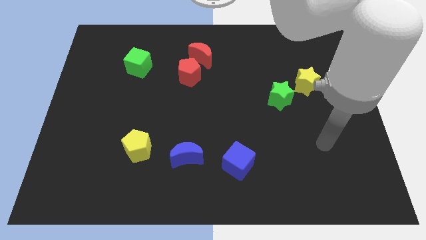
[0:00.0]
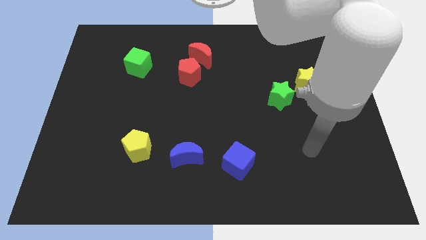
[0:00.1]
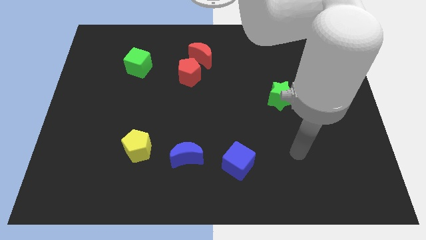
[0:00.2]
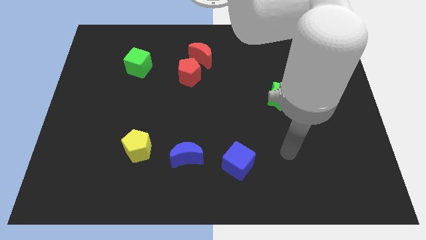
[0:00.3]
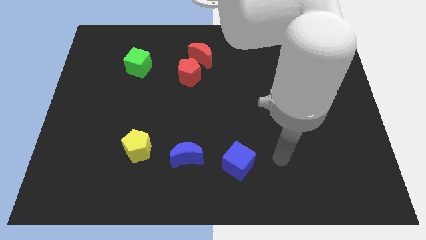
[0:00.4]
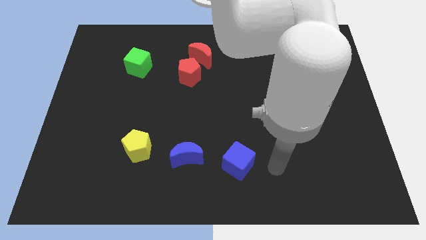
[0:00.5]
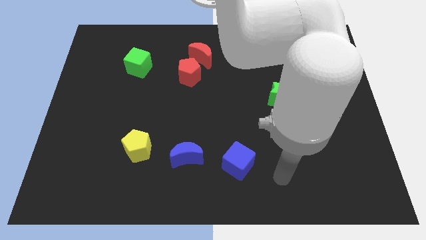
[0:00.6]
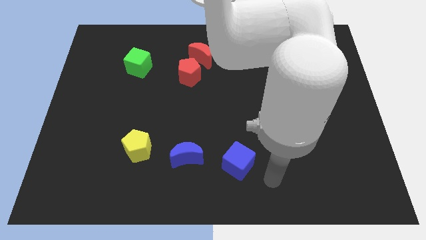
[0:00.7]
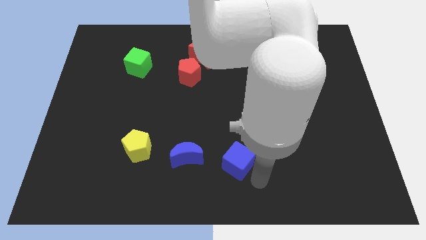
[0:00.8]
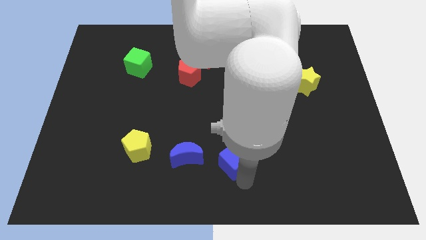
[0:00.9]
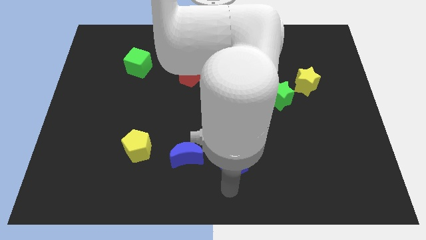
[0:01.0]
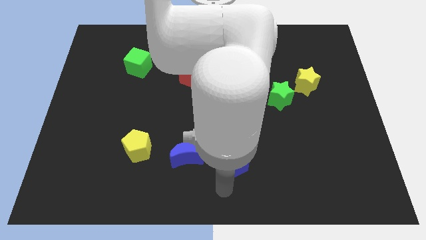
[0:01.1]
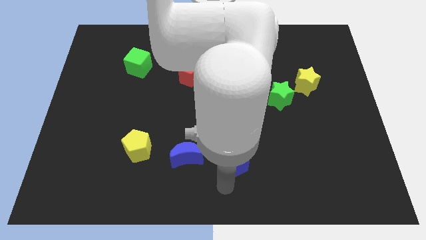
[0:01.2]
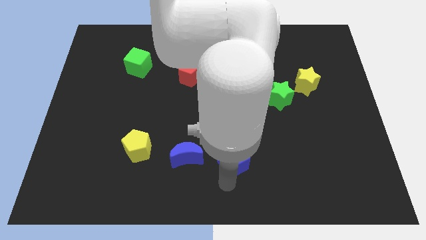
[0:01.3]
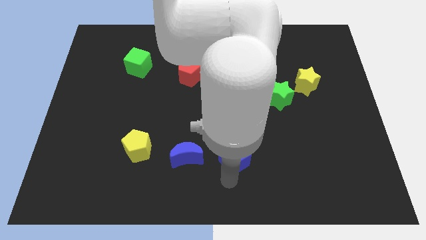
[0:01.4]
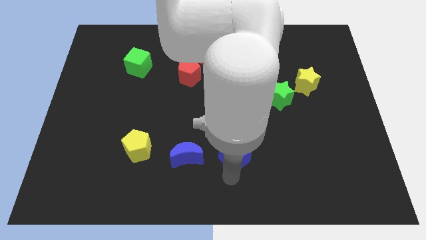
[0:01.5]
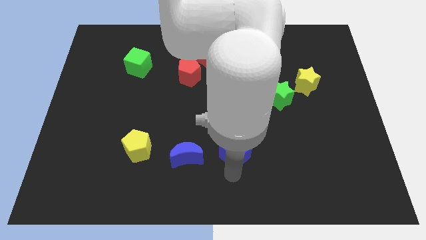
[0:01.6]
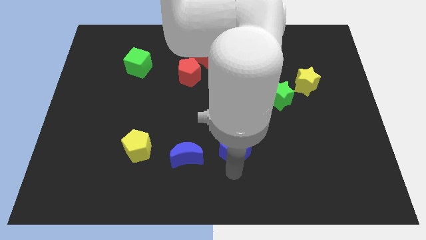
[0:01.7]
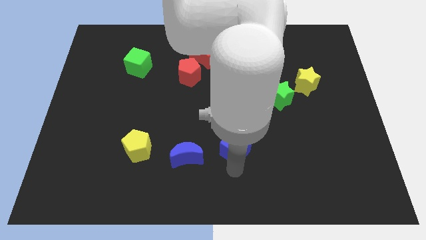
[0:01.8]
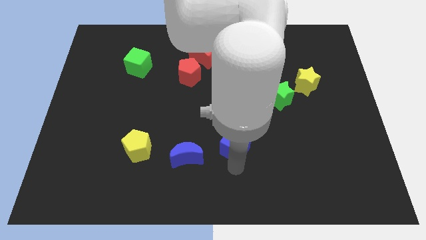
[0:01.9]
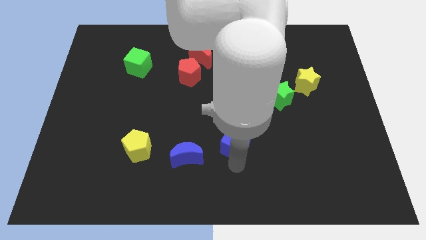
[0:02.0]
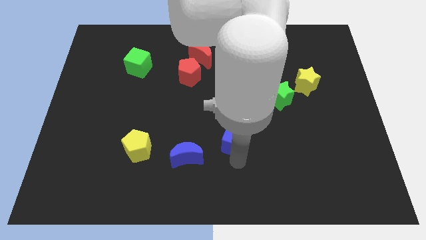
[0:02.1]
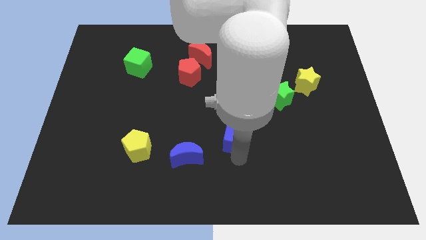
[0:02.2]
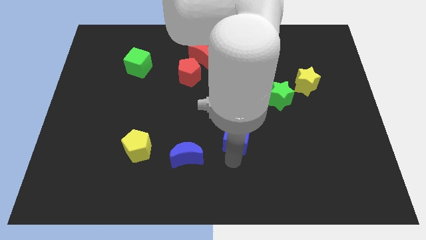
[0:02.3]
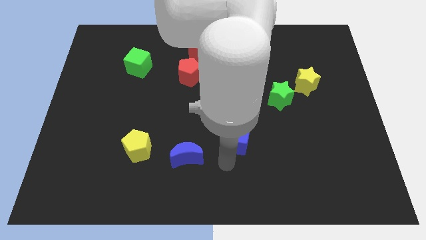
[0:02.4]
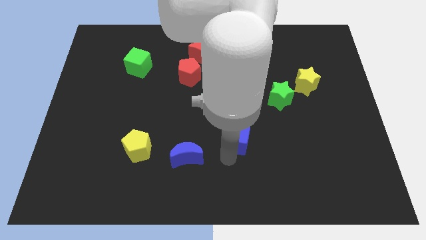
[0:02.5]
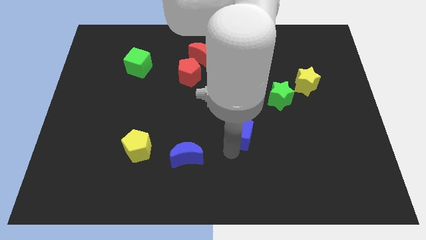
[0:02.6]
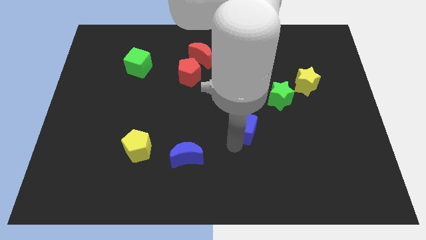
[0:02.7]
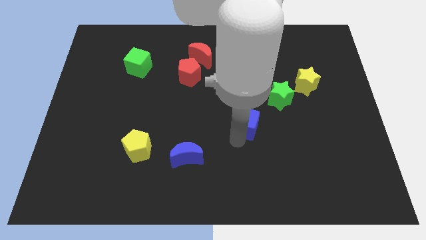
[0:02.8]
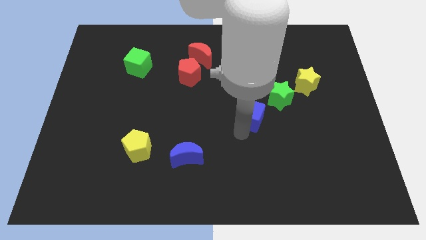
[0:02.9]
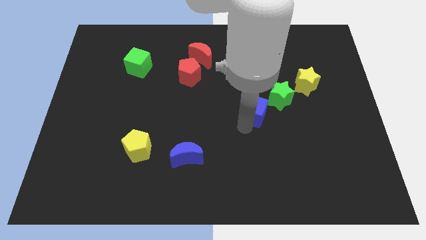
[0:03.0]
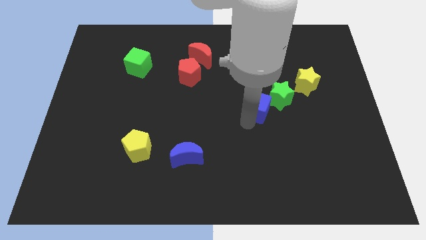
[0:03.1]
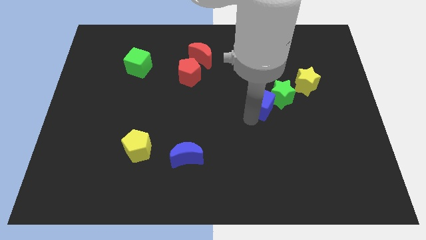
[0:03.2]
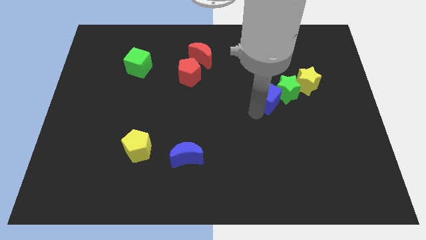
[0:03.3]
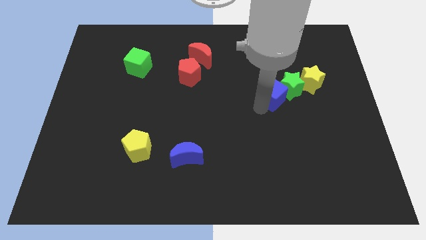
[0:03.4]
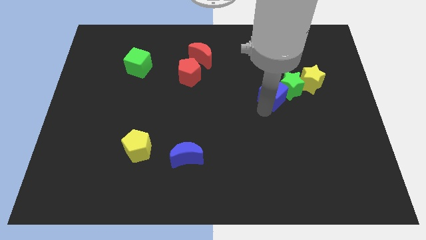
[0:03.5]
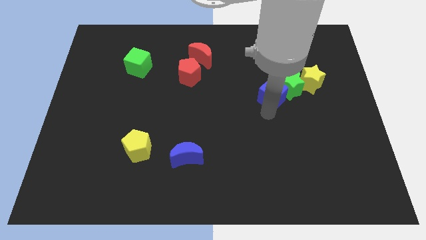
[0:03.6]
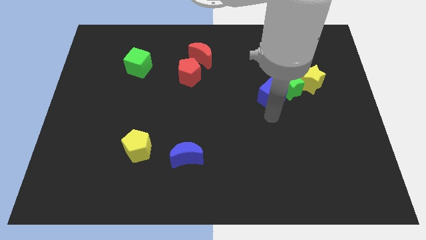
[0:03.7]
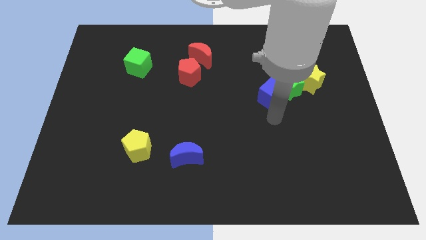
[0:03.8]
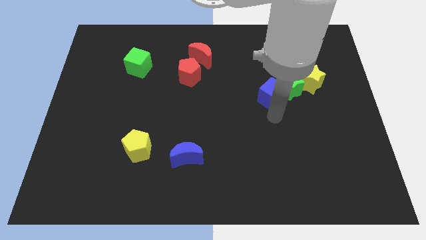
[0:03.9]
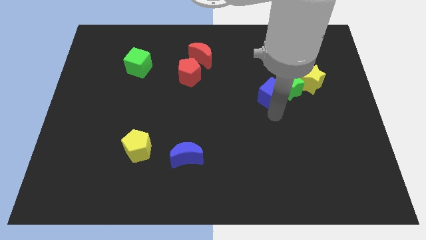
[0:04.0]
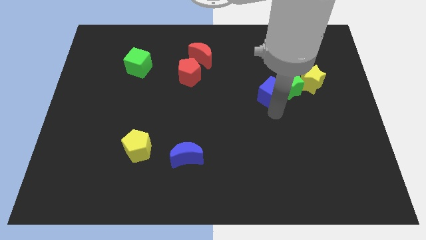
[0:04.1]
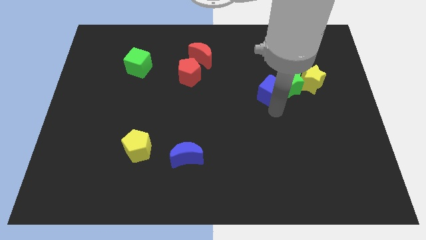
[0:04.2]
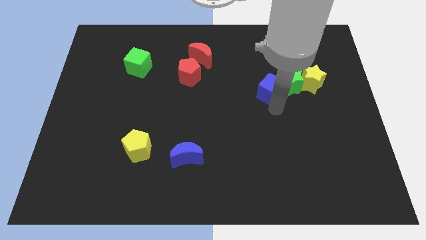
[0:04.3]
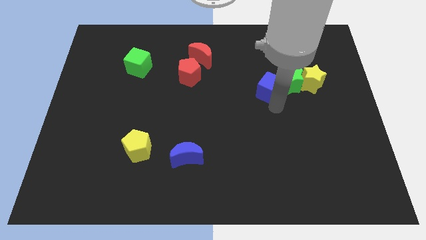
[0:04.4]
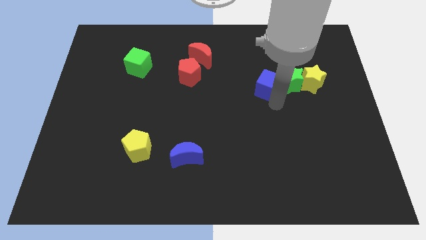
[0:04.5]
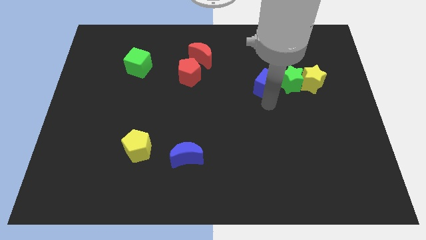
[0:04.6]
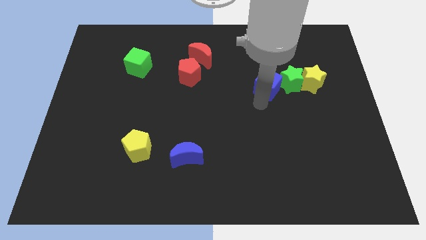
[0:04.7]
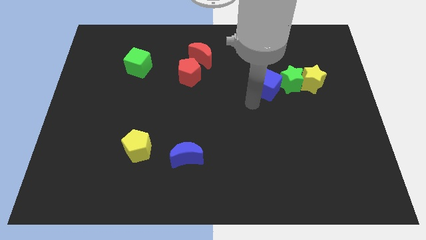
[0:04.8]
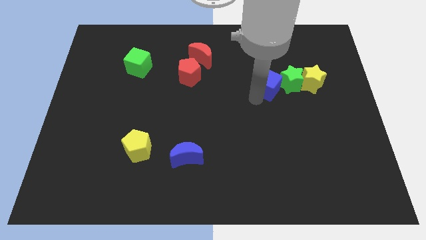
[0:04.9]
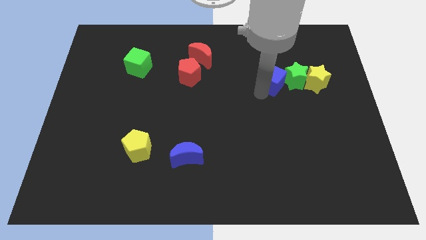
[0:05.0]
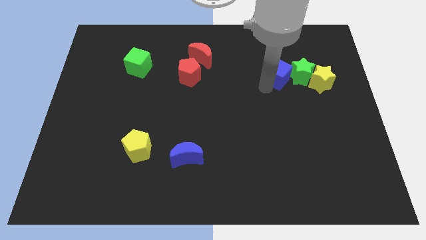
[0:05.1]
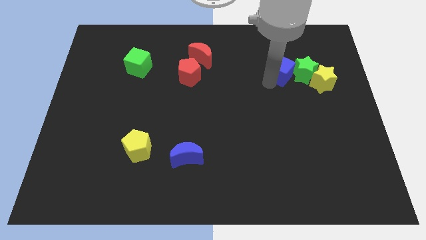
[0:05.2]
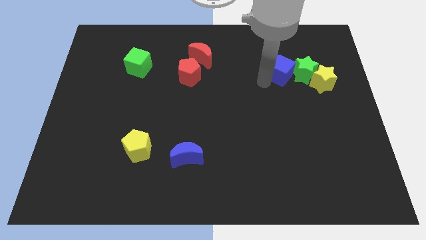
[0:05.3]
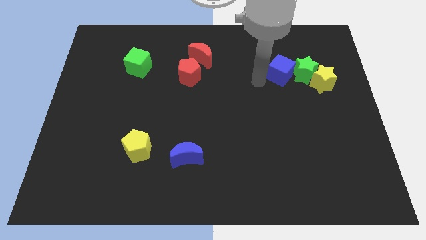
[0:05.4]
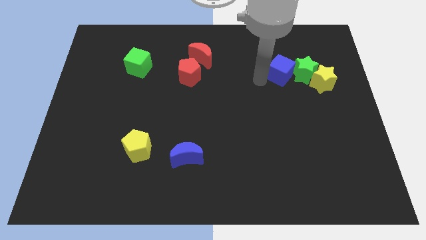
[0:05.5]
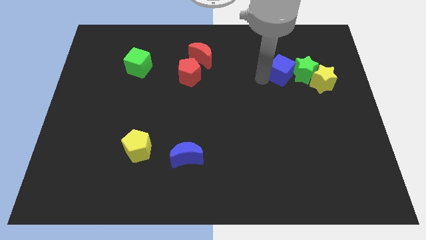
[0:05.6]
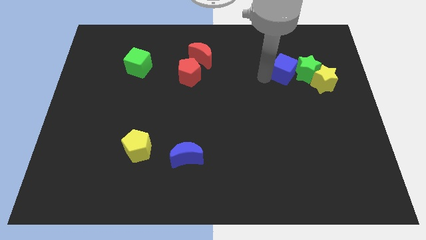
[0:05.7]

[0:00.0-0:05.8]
put the blue cube to the top left of the yellow star

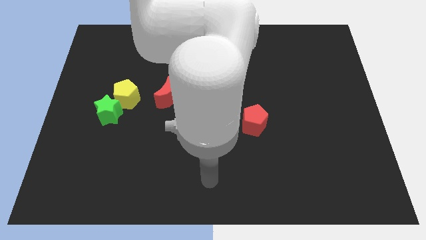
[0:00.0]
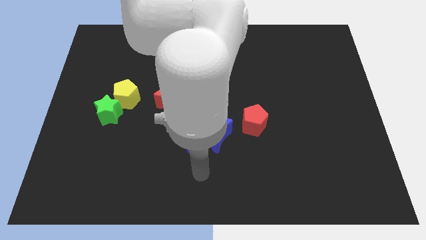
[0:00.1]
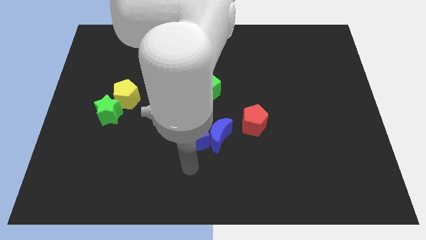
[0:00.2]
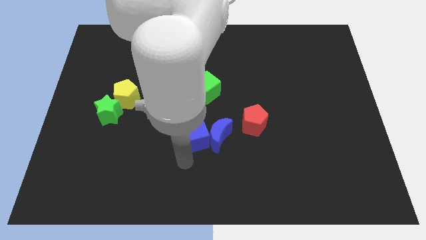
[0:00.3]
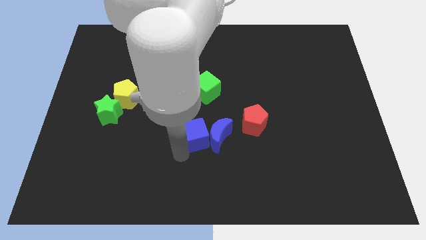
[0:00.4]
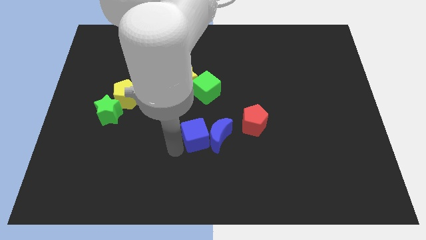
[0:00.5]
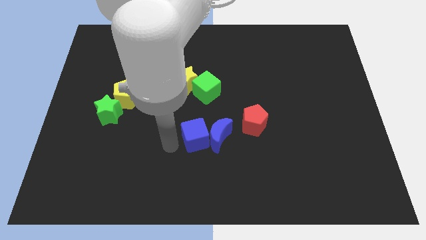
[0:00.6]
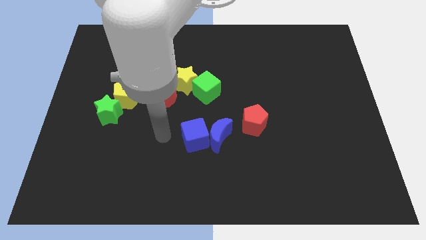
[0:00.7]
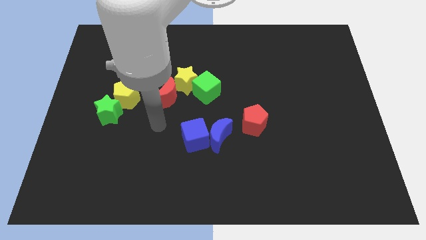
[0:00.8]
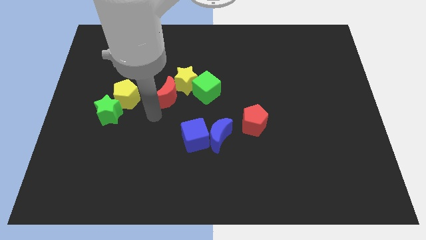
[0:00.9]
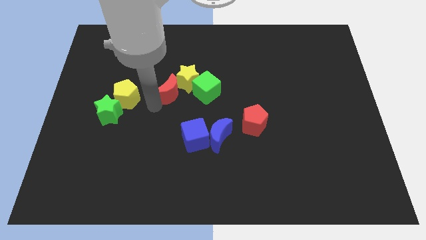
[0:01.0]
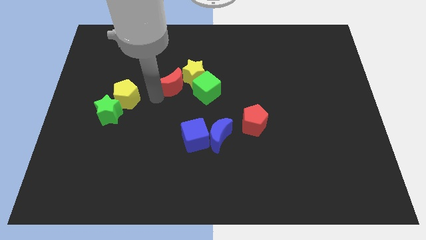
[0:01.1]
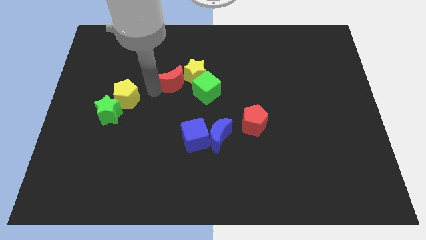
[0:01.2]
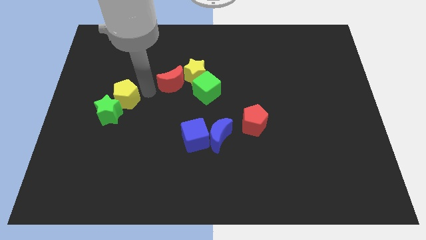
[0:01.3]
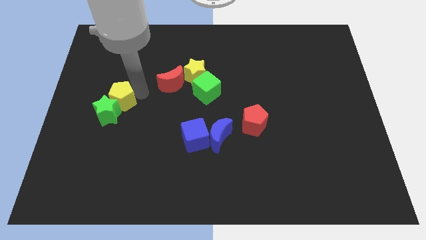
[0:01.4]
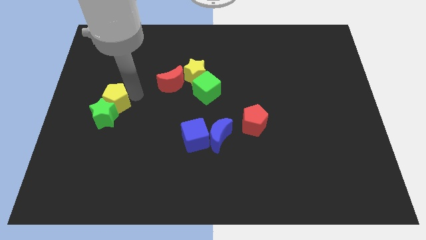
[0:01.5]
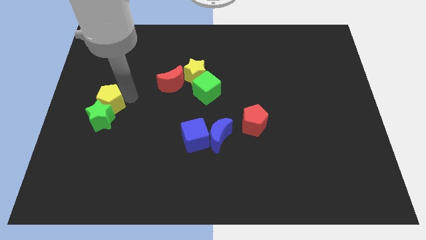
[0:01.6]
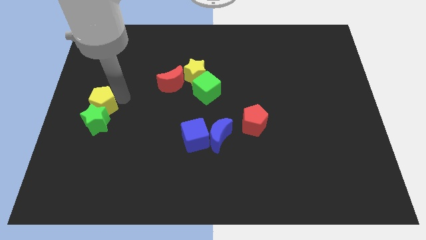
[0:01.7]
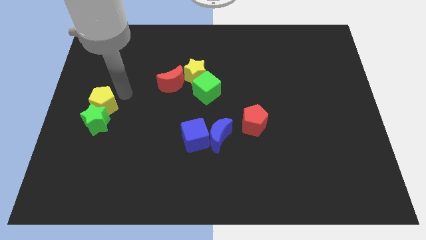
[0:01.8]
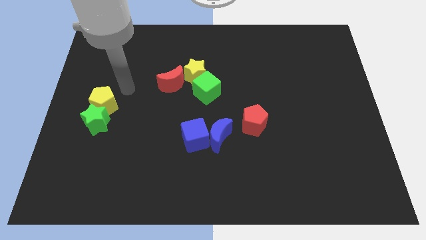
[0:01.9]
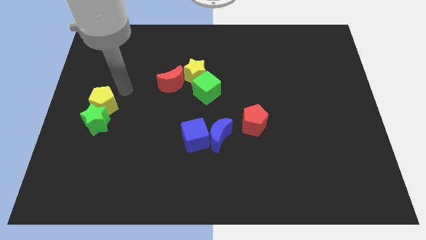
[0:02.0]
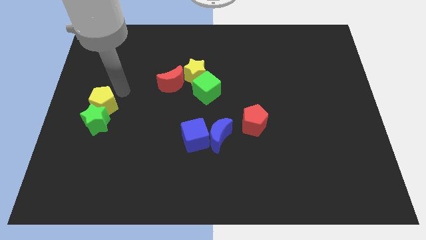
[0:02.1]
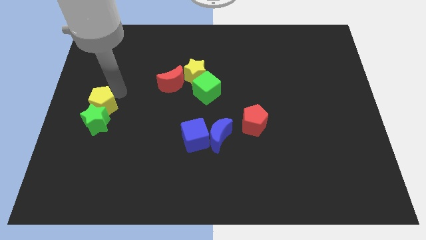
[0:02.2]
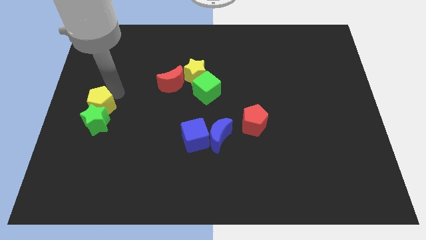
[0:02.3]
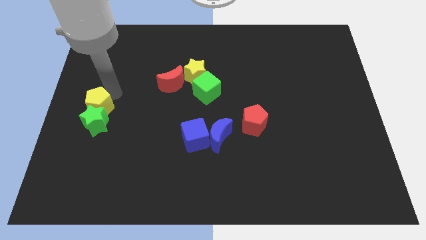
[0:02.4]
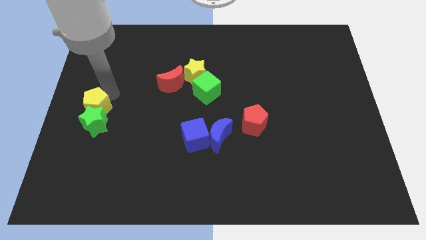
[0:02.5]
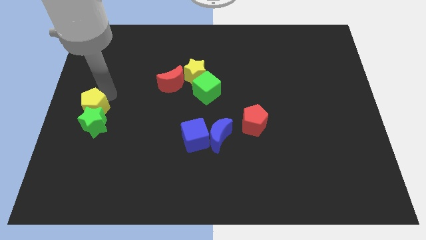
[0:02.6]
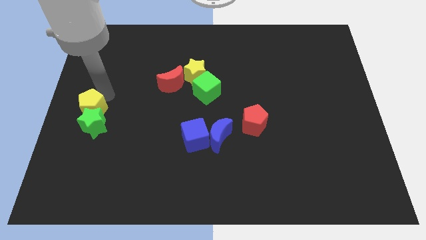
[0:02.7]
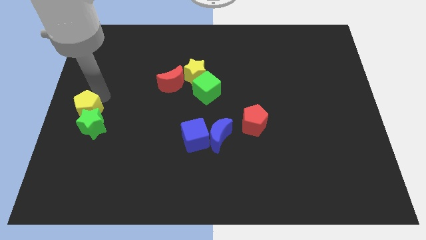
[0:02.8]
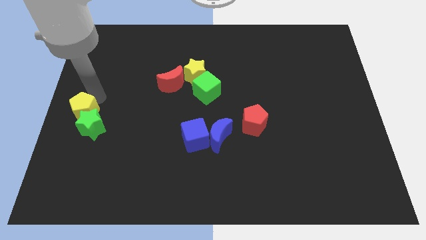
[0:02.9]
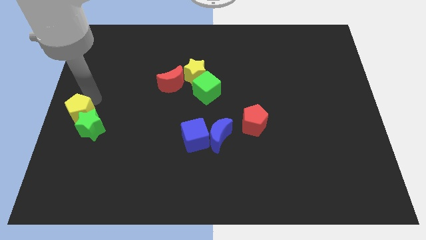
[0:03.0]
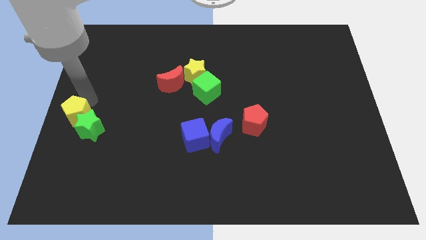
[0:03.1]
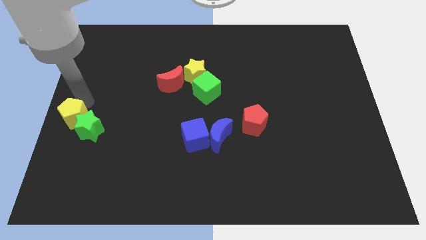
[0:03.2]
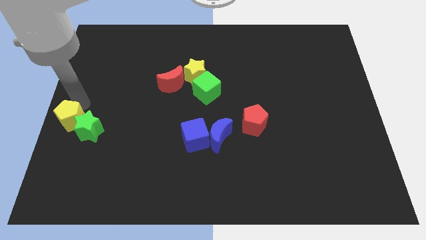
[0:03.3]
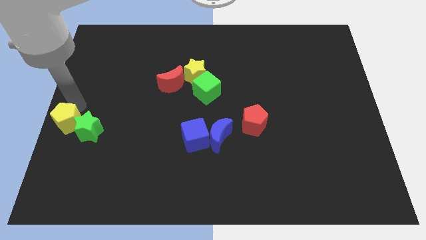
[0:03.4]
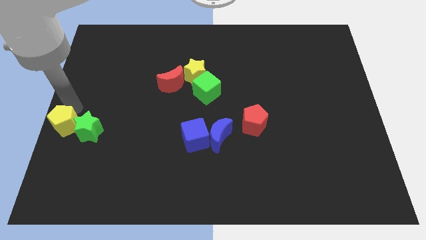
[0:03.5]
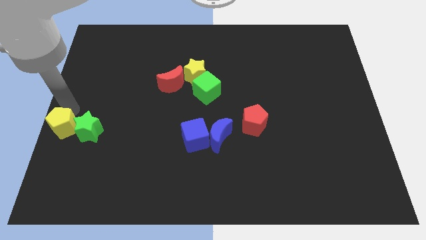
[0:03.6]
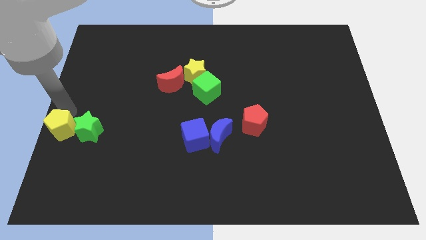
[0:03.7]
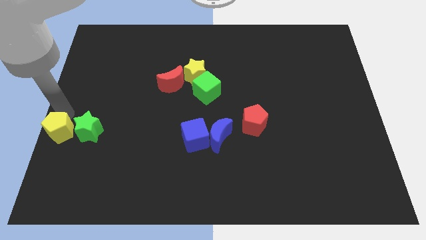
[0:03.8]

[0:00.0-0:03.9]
put the yellow pentagon to the bottom left side of the green star
